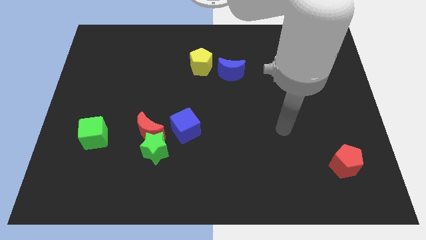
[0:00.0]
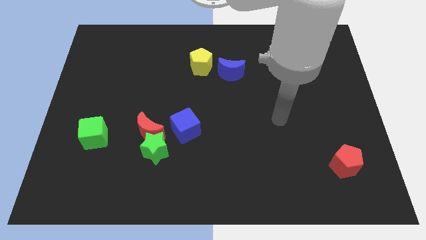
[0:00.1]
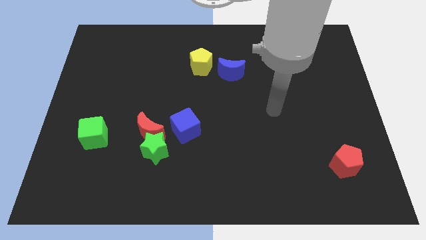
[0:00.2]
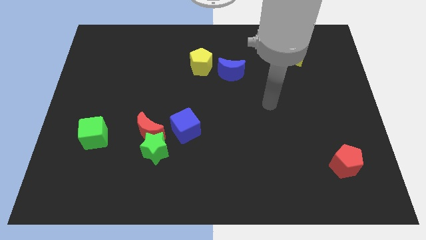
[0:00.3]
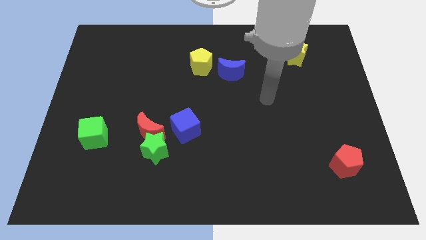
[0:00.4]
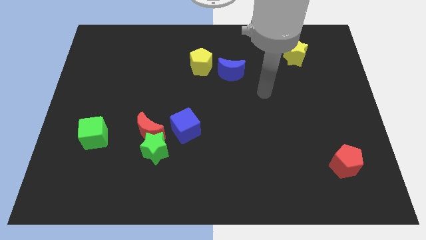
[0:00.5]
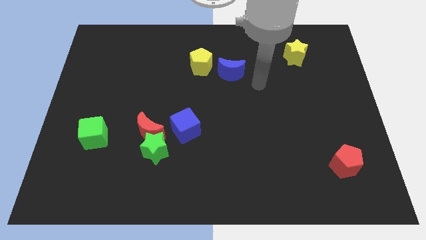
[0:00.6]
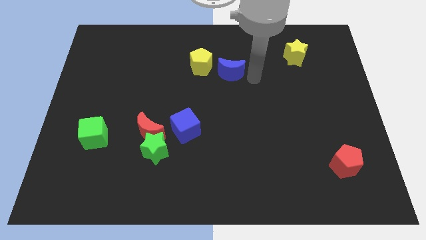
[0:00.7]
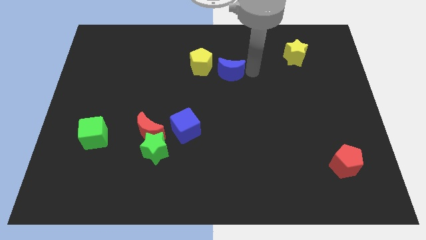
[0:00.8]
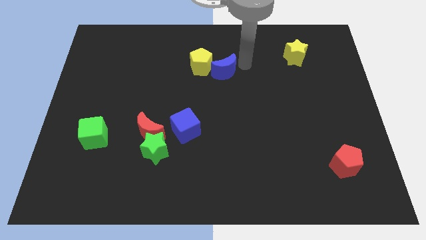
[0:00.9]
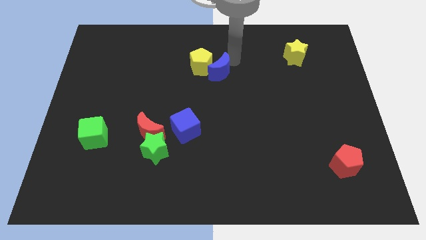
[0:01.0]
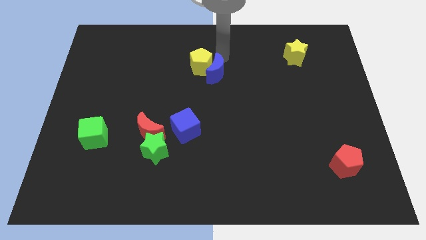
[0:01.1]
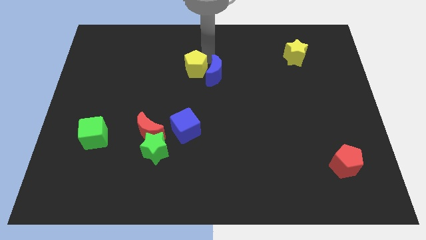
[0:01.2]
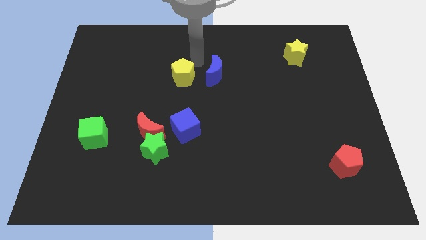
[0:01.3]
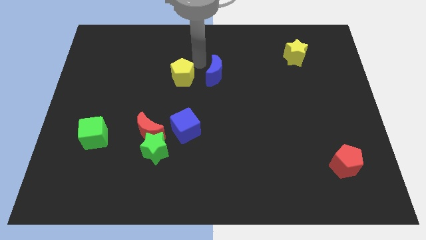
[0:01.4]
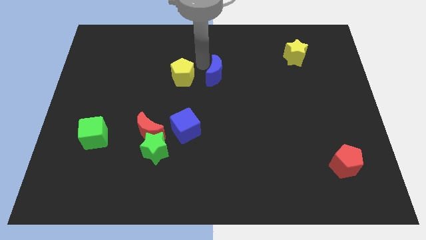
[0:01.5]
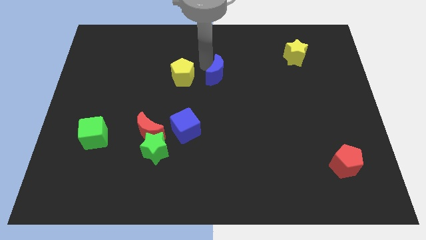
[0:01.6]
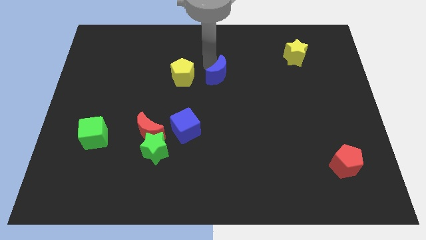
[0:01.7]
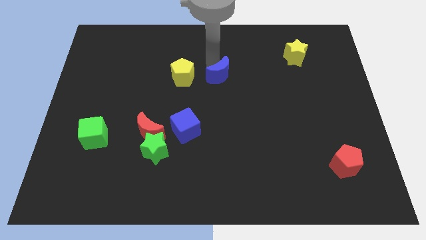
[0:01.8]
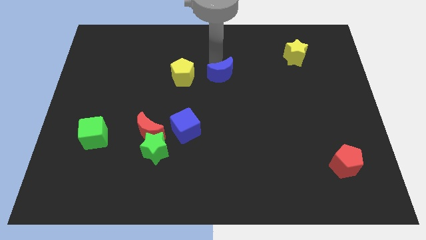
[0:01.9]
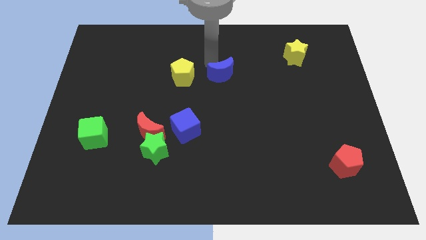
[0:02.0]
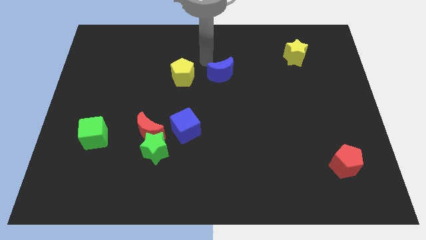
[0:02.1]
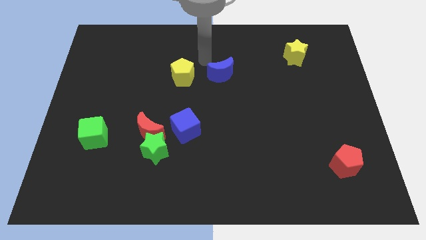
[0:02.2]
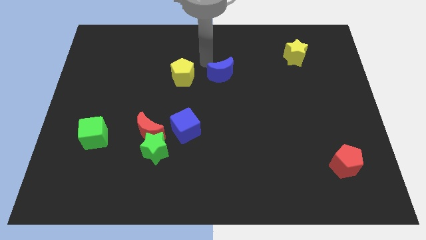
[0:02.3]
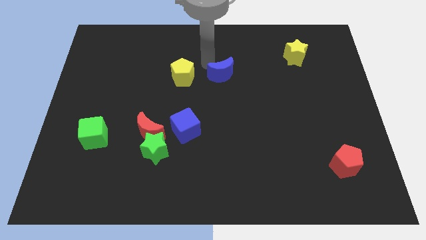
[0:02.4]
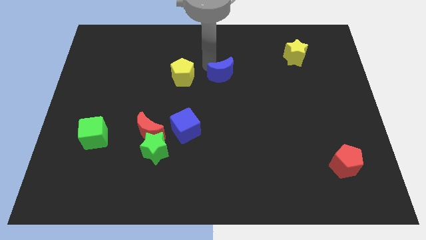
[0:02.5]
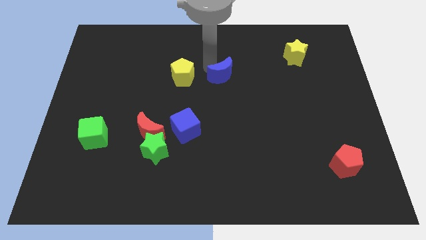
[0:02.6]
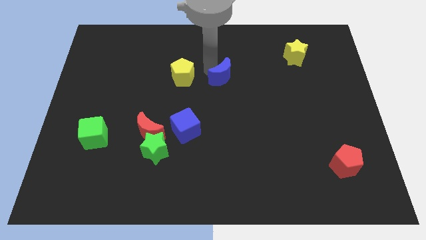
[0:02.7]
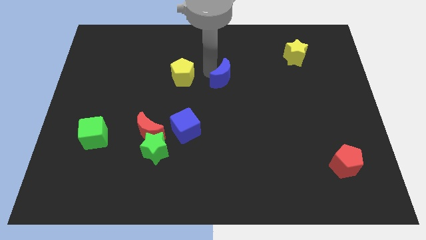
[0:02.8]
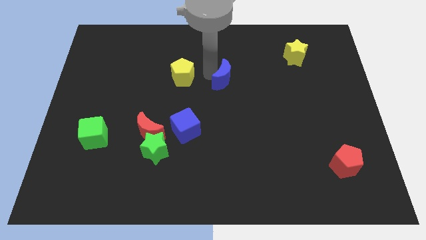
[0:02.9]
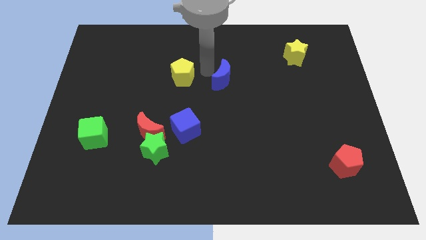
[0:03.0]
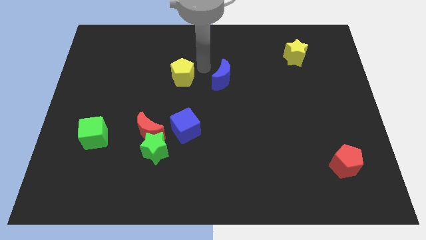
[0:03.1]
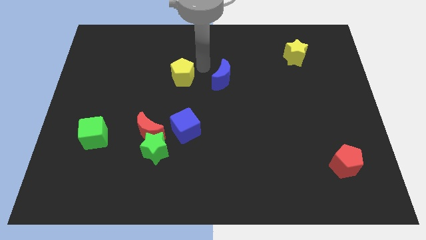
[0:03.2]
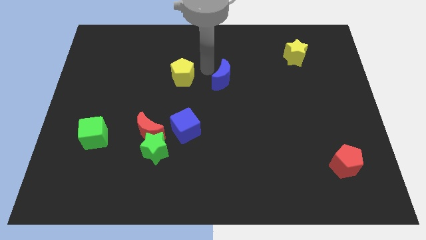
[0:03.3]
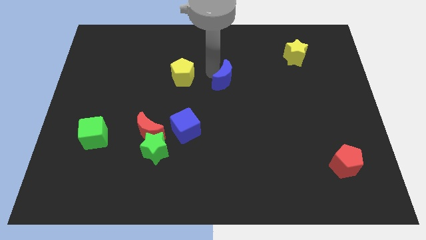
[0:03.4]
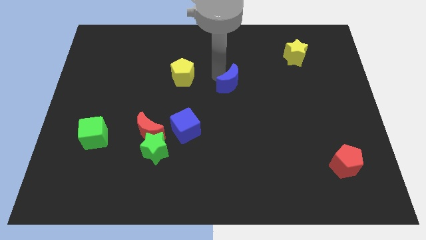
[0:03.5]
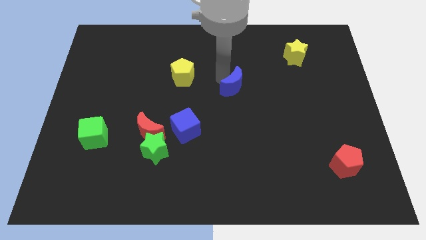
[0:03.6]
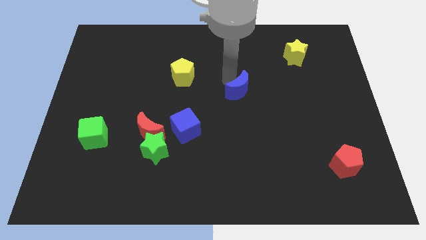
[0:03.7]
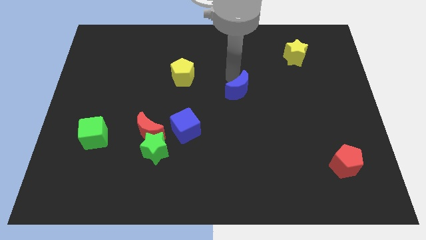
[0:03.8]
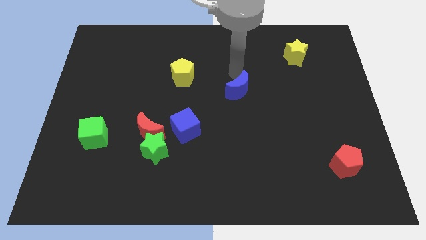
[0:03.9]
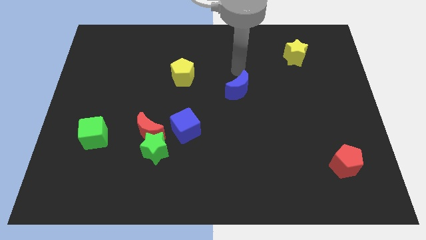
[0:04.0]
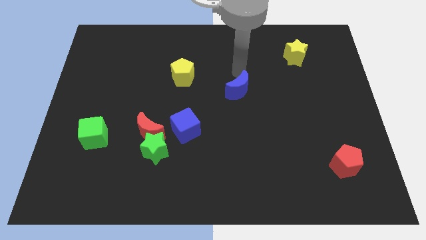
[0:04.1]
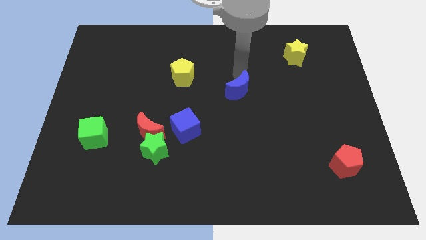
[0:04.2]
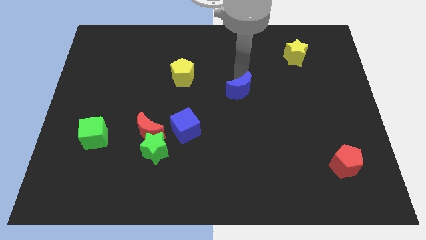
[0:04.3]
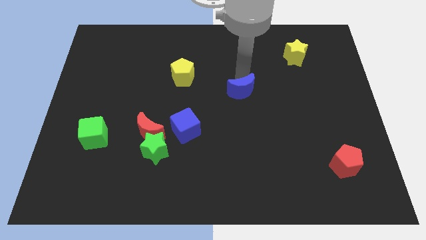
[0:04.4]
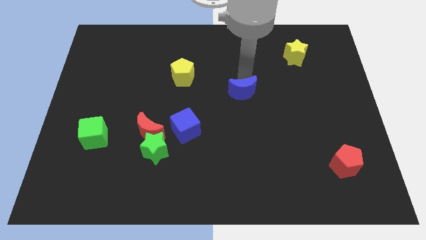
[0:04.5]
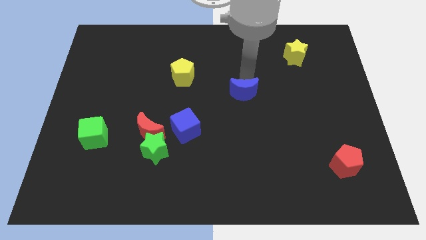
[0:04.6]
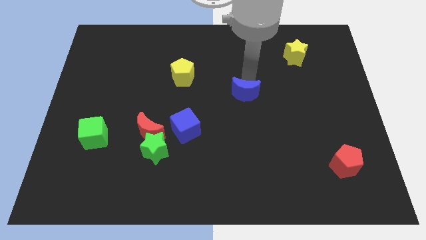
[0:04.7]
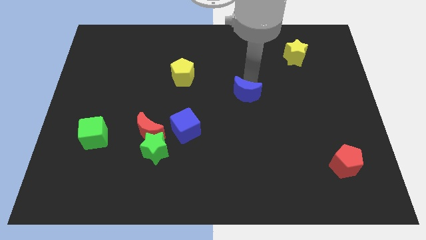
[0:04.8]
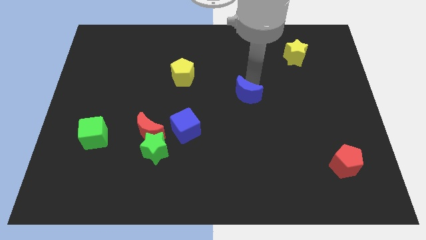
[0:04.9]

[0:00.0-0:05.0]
push the blue moon downwards slightly

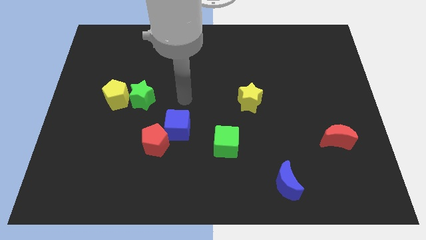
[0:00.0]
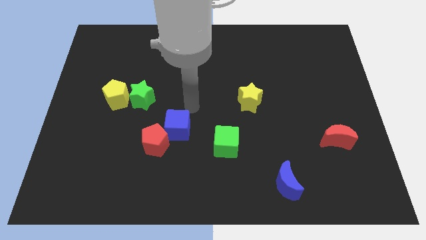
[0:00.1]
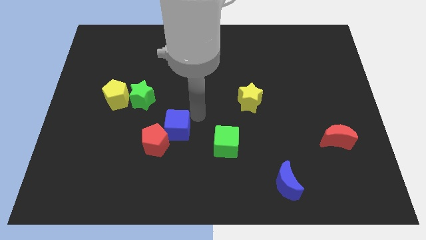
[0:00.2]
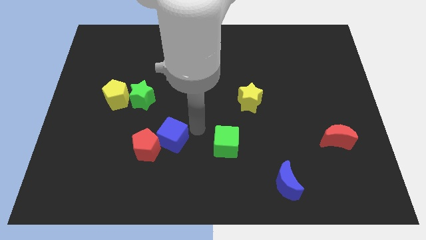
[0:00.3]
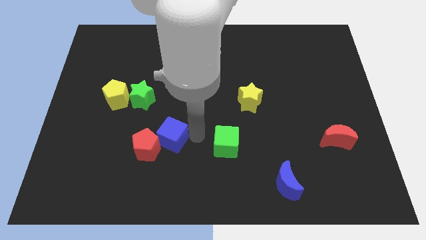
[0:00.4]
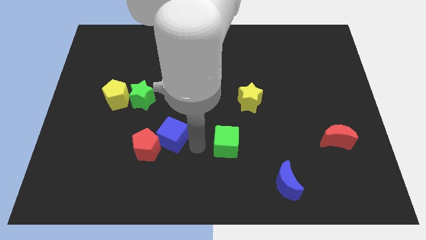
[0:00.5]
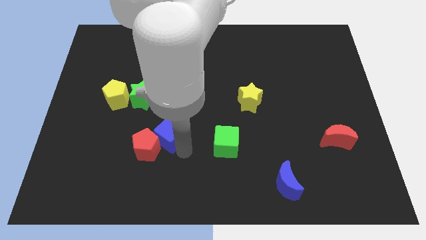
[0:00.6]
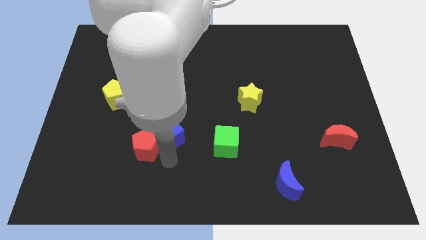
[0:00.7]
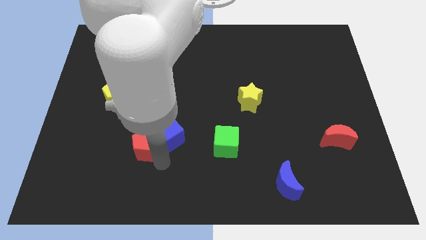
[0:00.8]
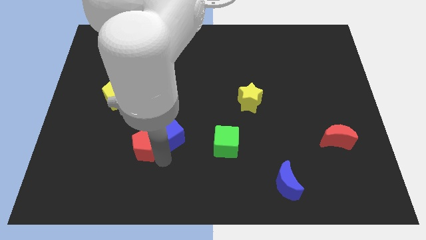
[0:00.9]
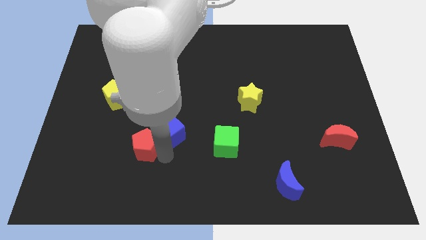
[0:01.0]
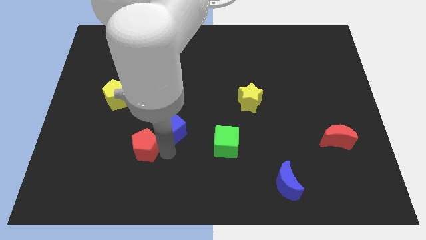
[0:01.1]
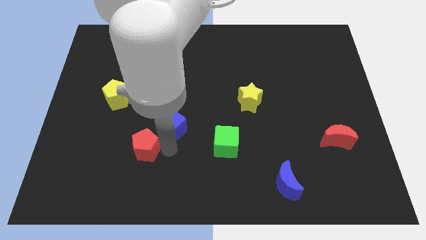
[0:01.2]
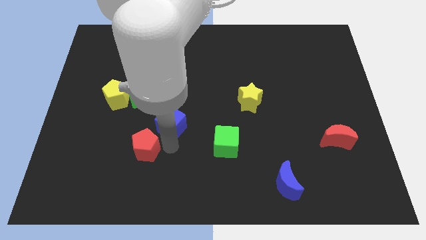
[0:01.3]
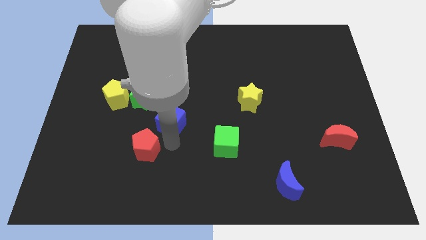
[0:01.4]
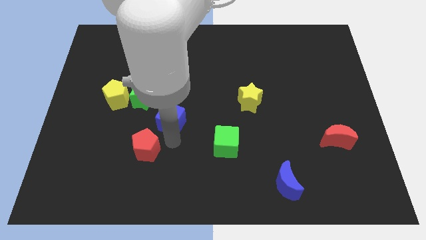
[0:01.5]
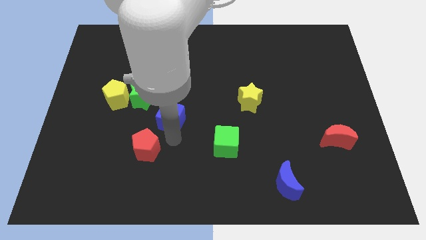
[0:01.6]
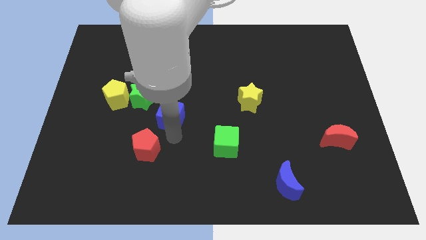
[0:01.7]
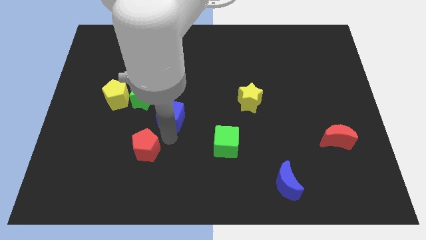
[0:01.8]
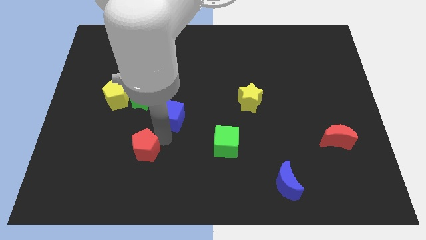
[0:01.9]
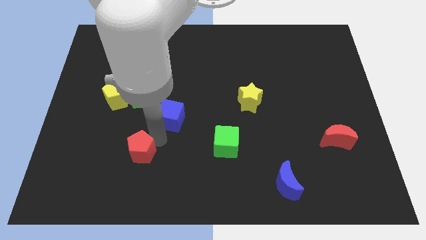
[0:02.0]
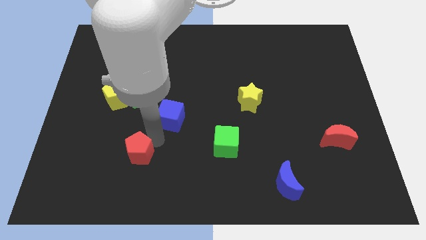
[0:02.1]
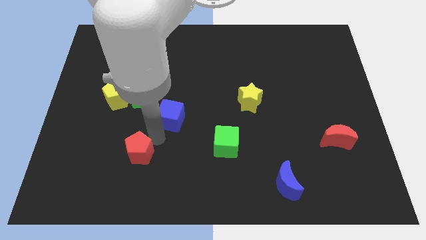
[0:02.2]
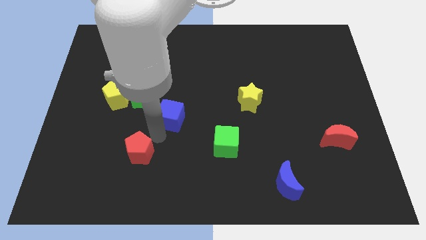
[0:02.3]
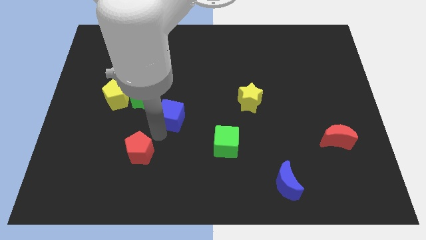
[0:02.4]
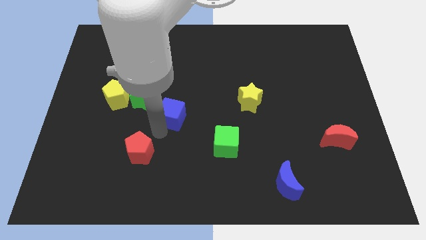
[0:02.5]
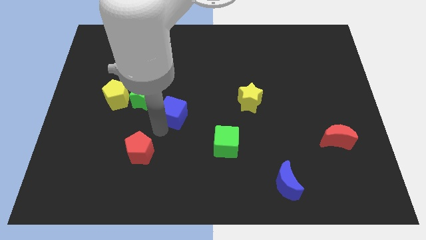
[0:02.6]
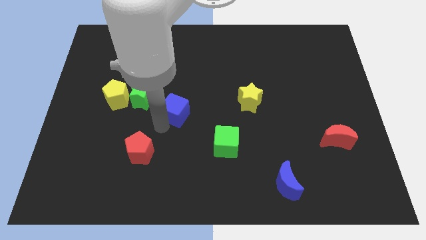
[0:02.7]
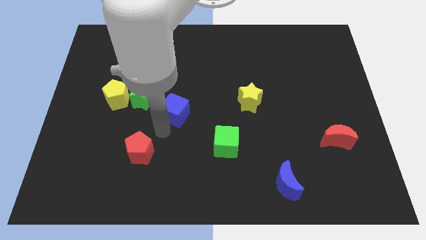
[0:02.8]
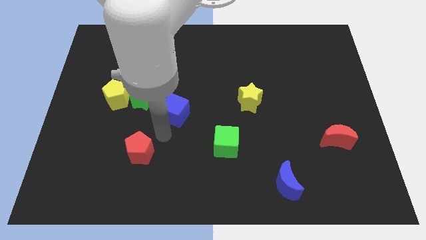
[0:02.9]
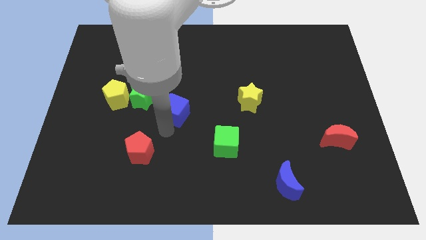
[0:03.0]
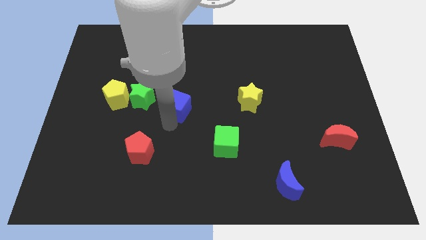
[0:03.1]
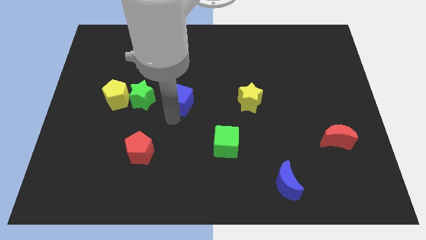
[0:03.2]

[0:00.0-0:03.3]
slightly push the blue cube upwards
